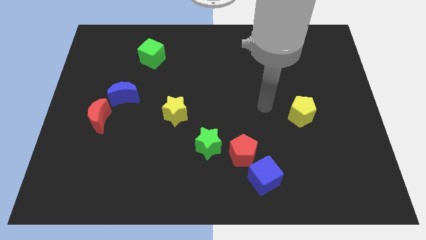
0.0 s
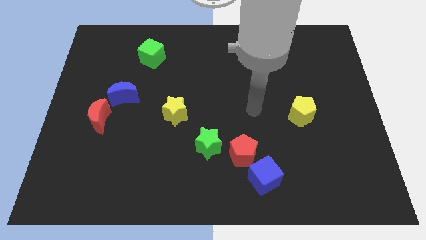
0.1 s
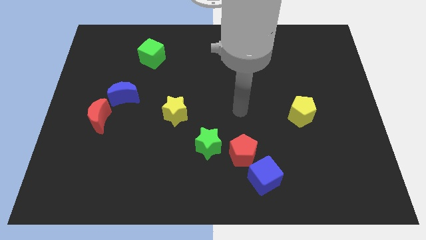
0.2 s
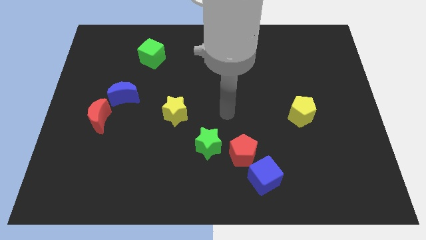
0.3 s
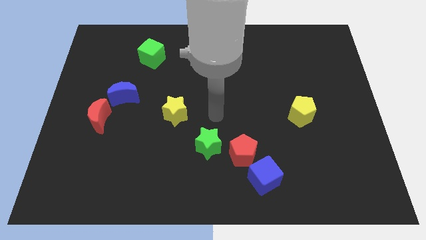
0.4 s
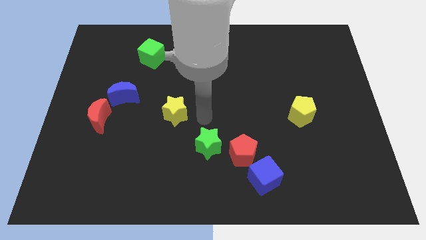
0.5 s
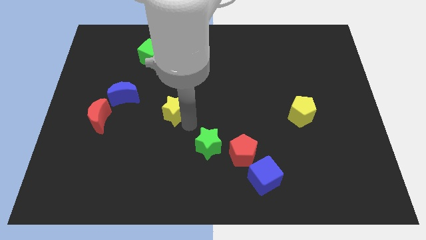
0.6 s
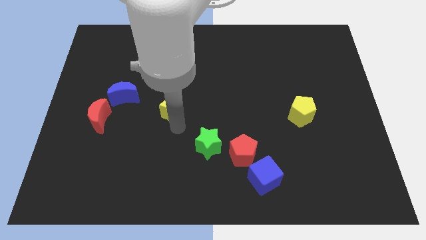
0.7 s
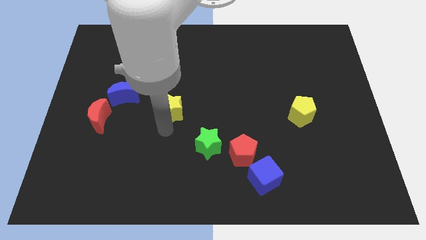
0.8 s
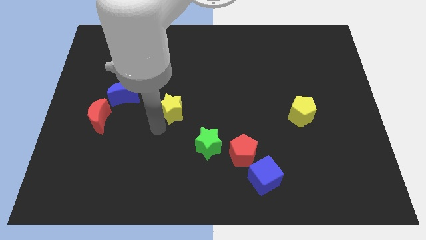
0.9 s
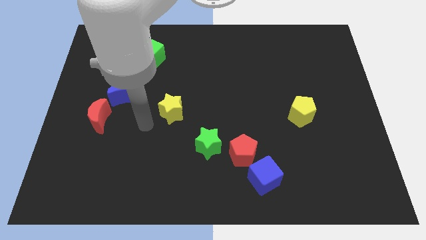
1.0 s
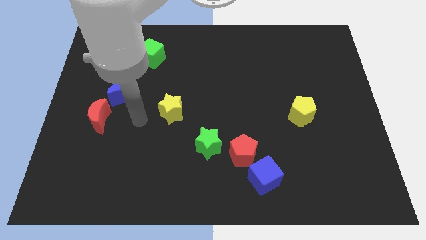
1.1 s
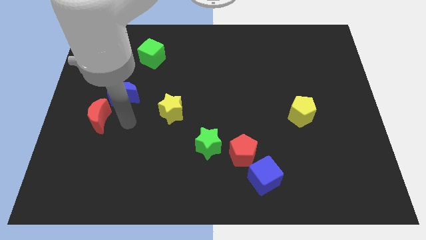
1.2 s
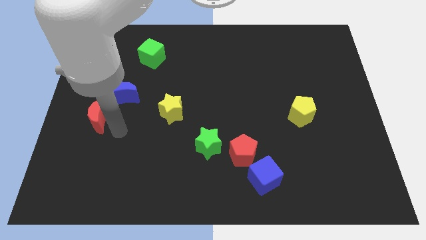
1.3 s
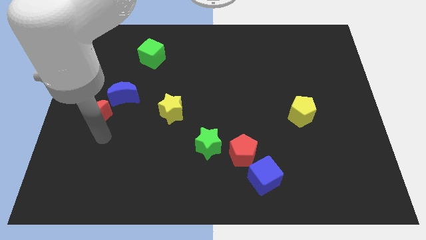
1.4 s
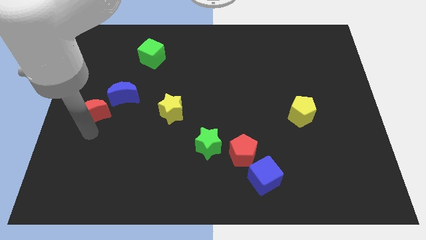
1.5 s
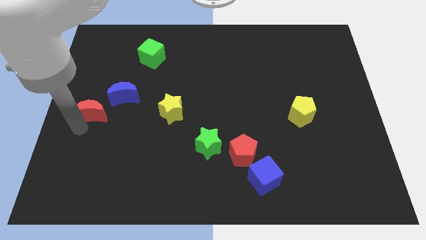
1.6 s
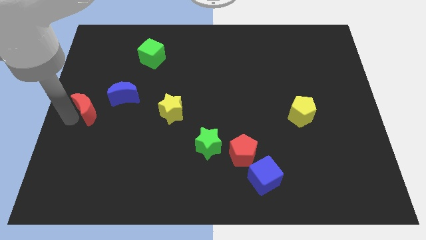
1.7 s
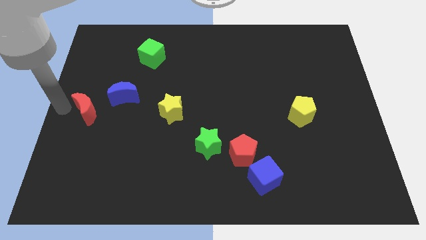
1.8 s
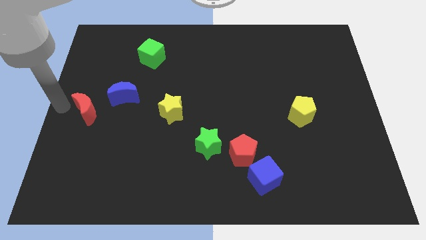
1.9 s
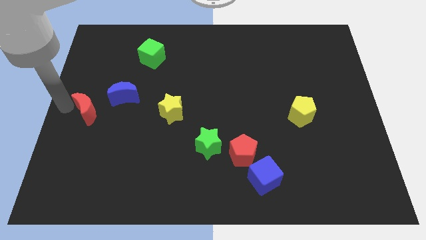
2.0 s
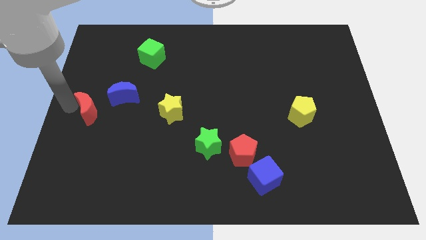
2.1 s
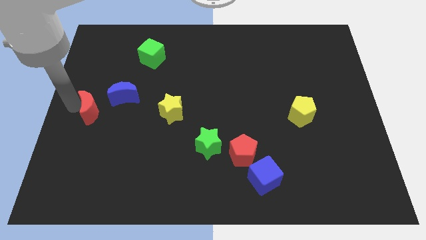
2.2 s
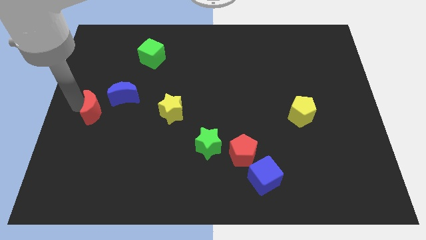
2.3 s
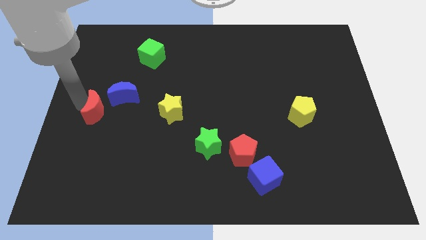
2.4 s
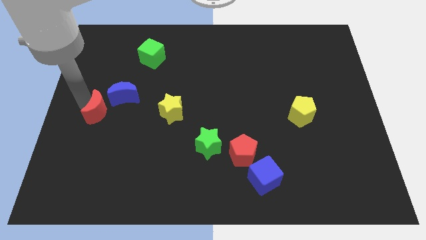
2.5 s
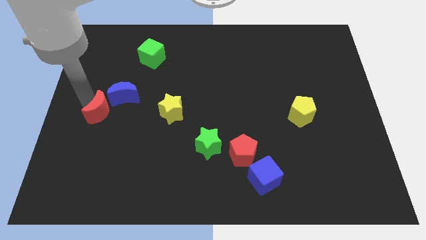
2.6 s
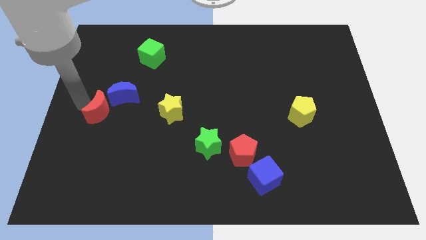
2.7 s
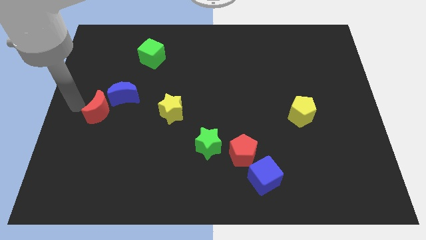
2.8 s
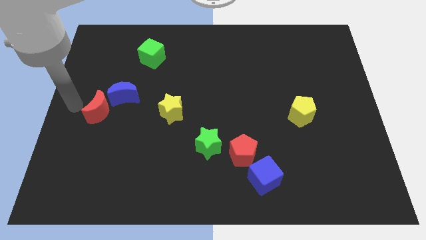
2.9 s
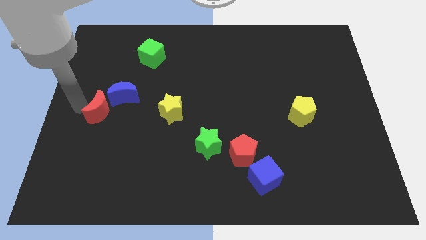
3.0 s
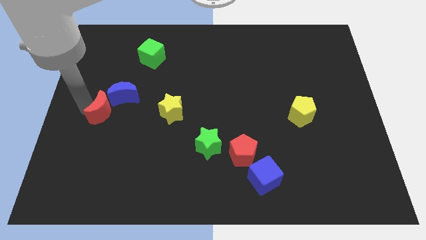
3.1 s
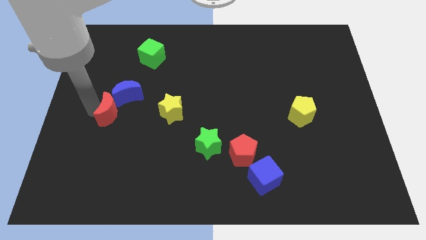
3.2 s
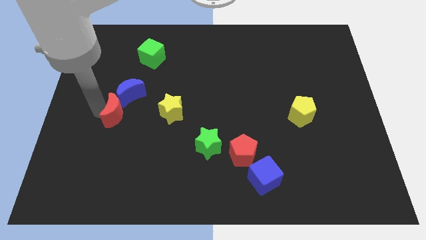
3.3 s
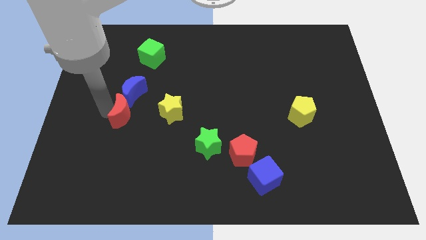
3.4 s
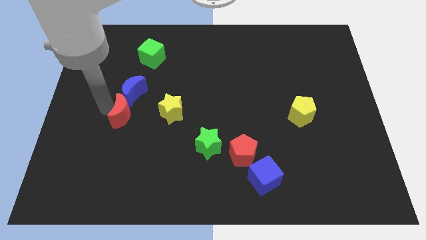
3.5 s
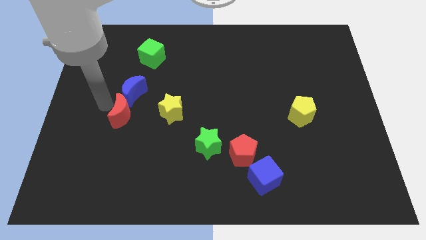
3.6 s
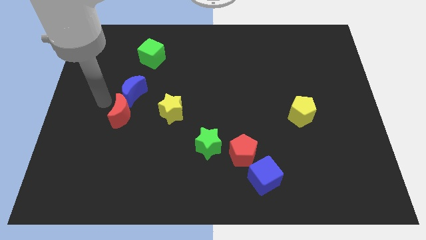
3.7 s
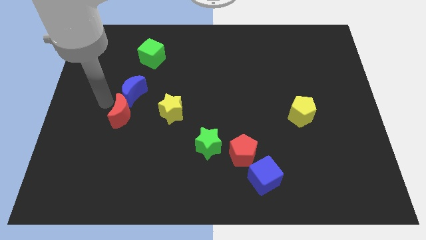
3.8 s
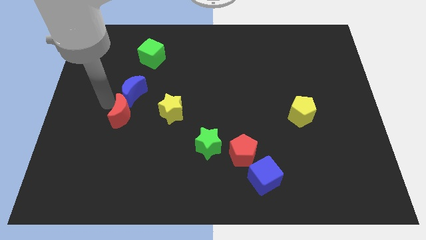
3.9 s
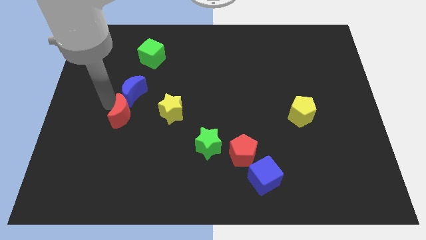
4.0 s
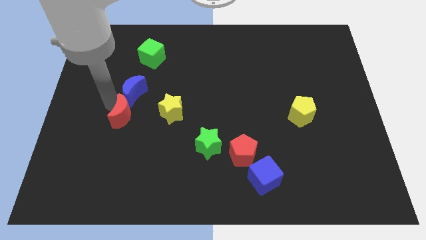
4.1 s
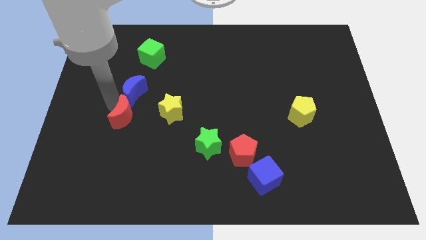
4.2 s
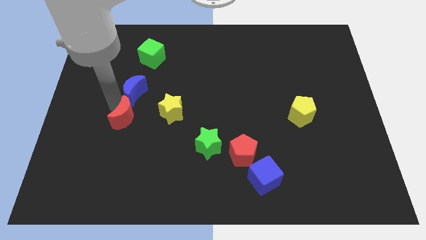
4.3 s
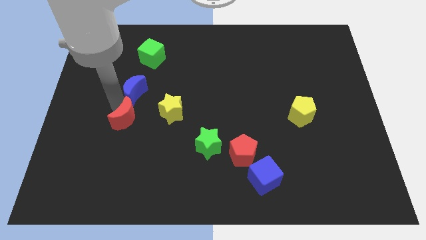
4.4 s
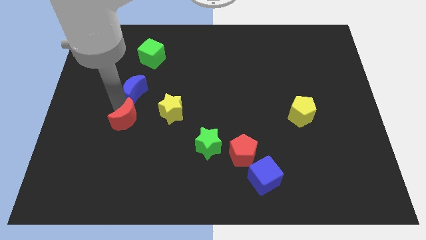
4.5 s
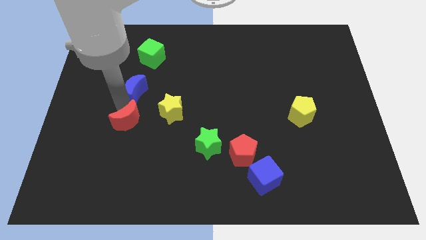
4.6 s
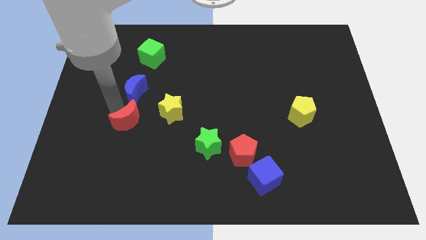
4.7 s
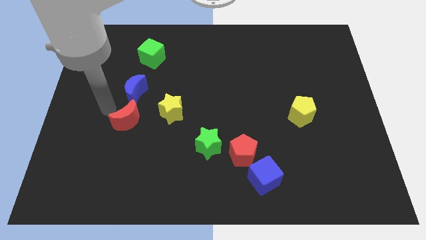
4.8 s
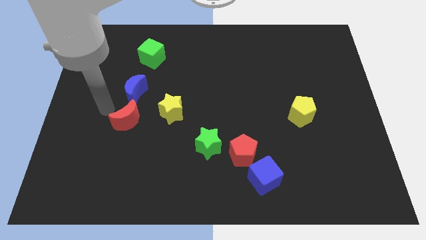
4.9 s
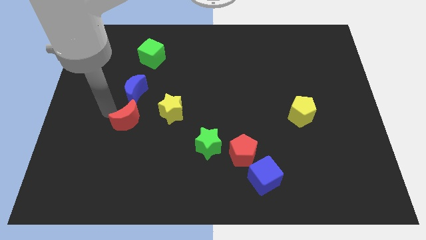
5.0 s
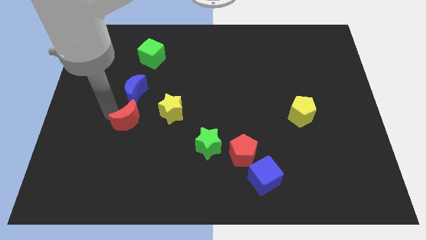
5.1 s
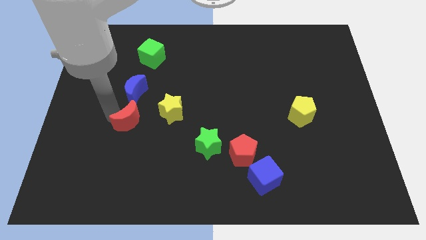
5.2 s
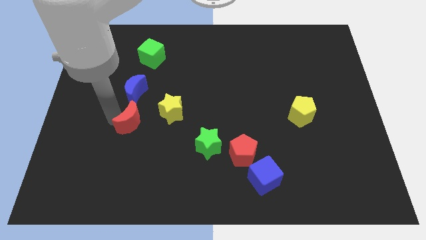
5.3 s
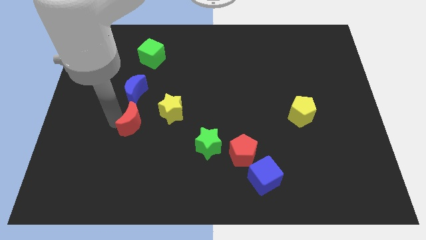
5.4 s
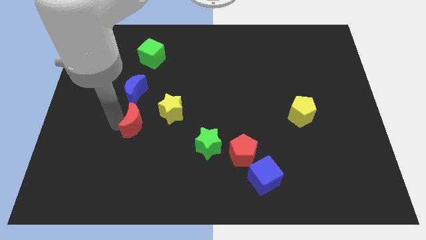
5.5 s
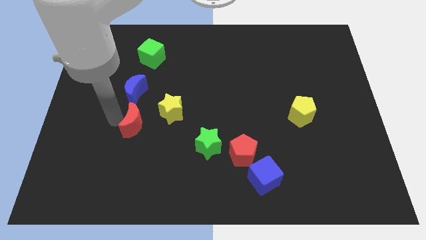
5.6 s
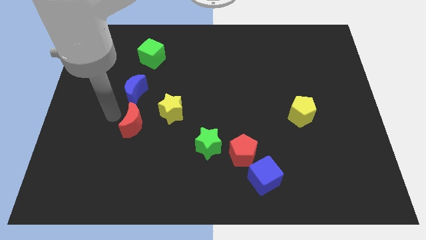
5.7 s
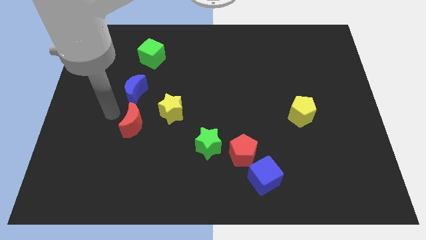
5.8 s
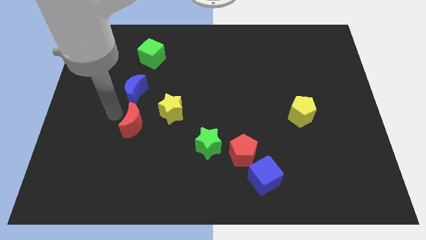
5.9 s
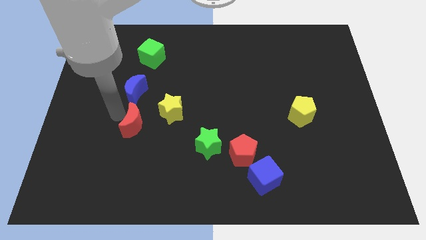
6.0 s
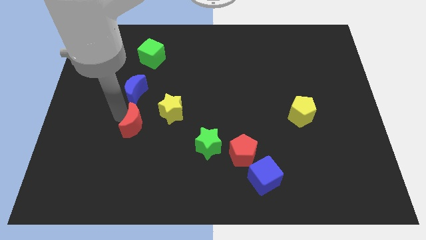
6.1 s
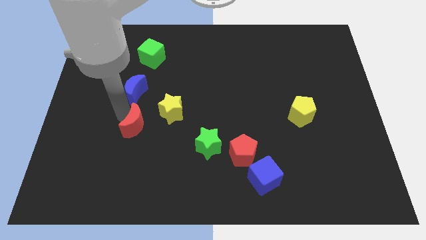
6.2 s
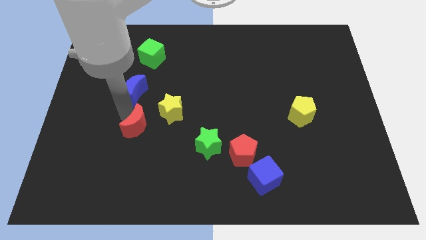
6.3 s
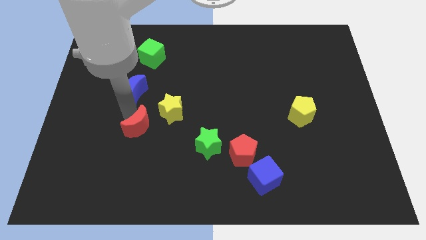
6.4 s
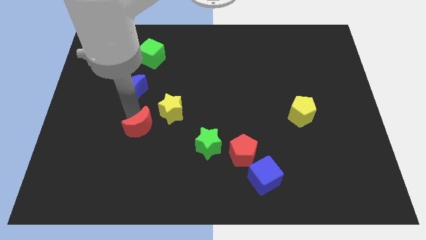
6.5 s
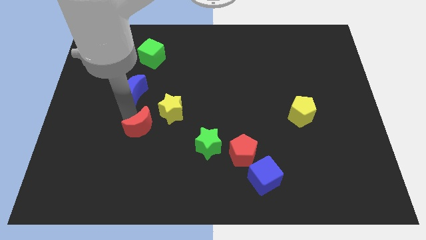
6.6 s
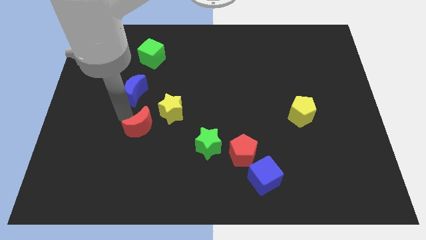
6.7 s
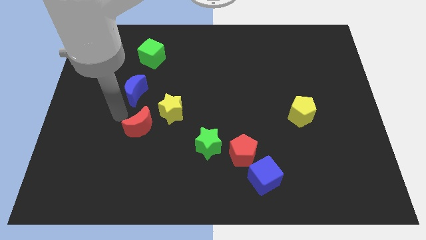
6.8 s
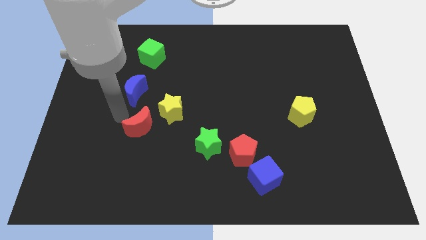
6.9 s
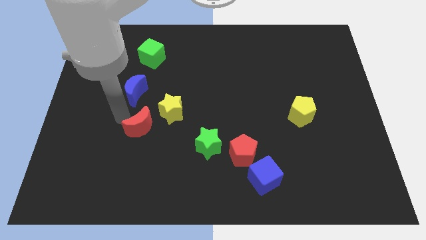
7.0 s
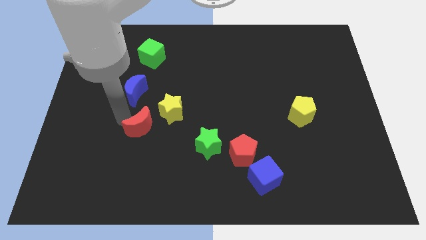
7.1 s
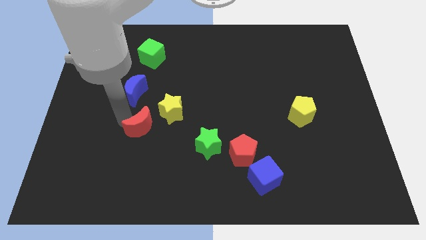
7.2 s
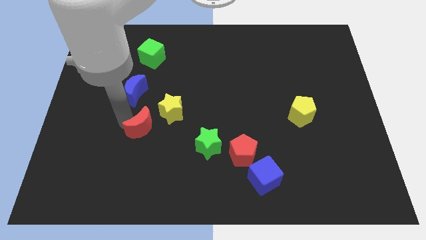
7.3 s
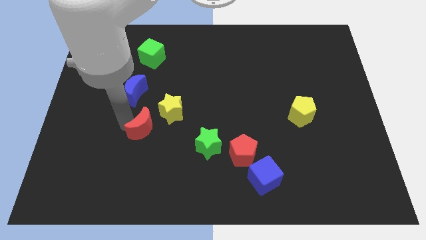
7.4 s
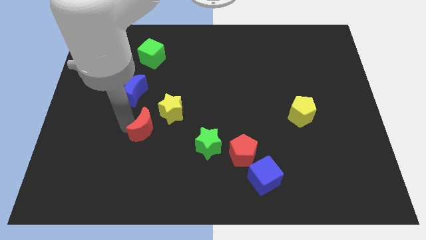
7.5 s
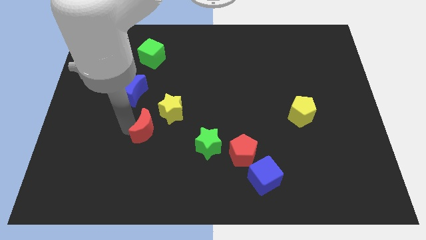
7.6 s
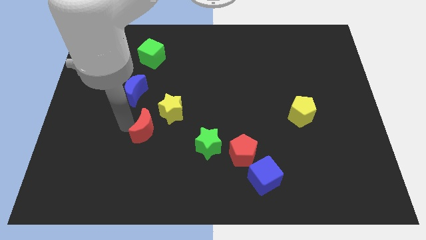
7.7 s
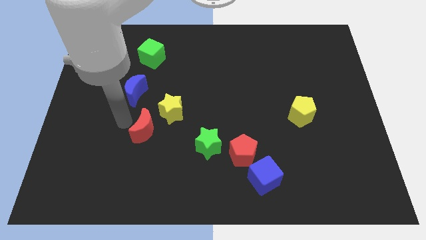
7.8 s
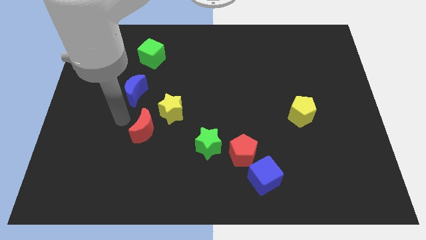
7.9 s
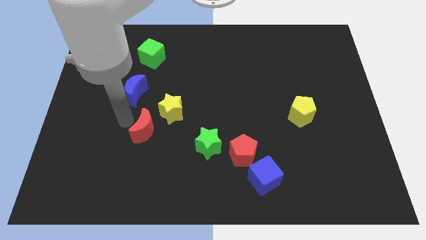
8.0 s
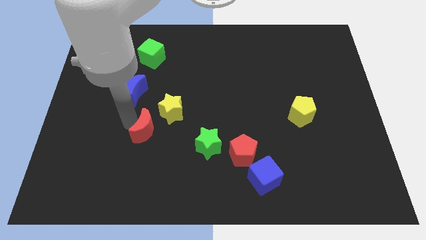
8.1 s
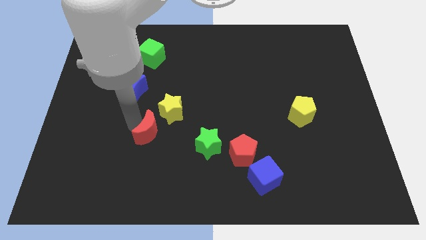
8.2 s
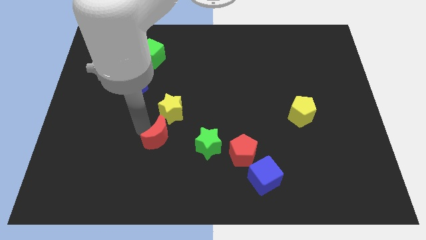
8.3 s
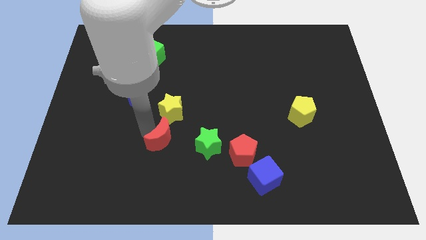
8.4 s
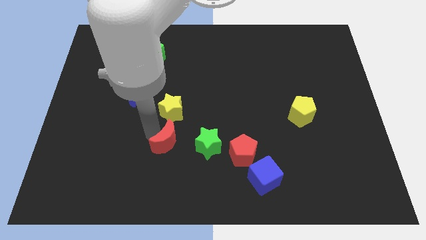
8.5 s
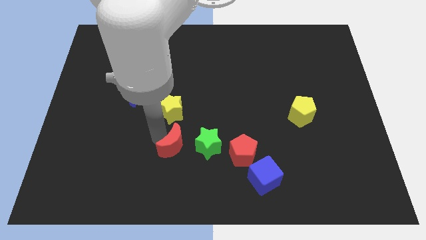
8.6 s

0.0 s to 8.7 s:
put the red moon left of the red pentagon
